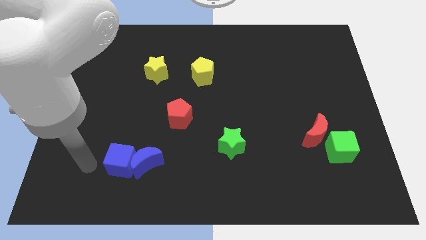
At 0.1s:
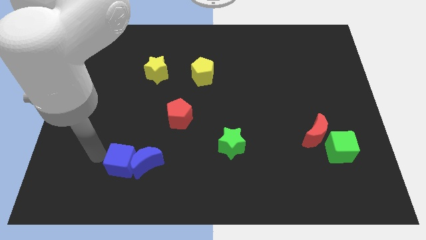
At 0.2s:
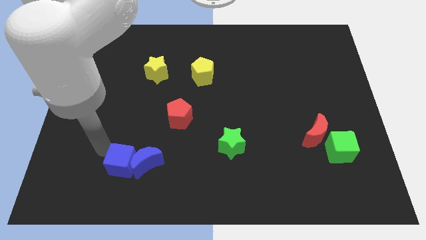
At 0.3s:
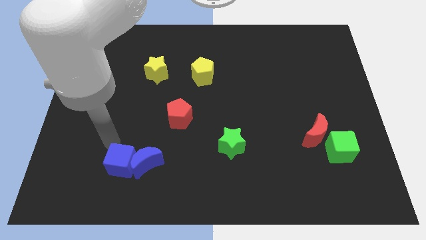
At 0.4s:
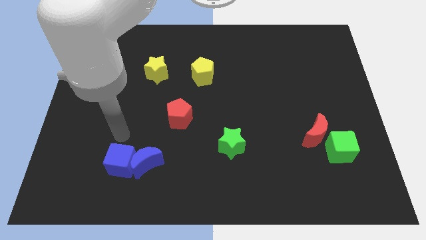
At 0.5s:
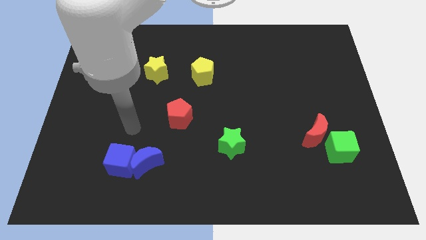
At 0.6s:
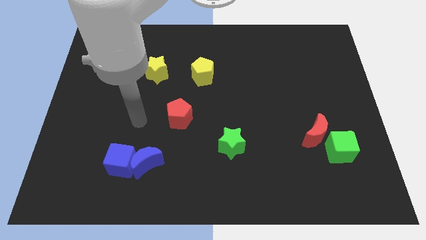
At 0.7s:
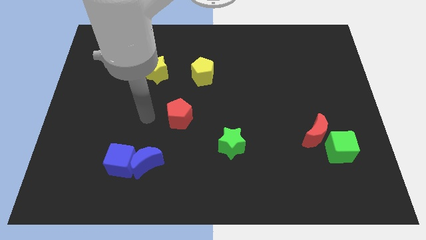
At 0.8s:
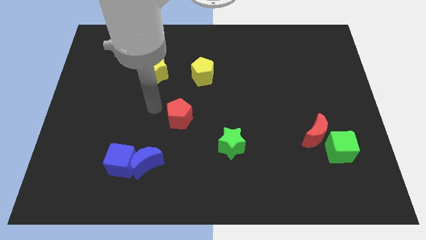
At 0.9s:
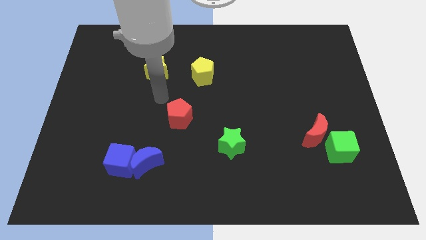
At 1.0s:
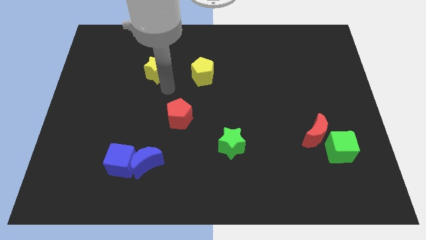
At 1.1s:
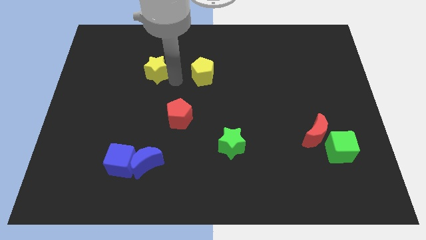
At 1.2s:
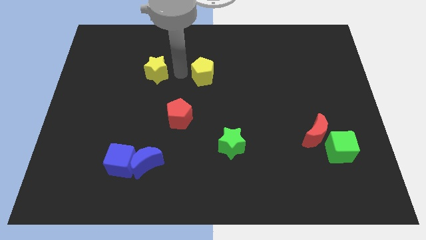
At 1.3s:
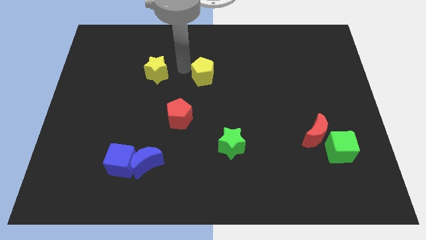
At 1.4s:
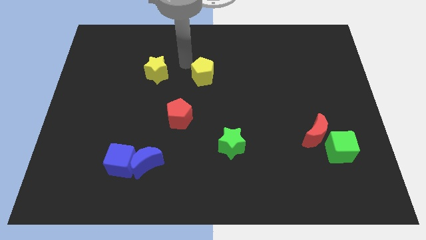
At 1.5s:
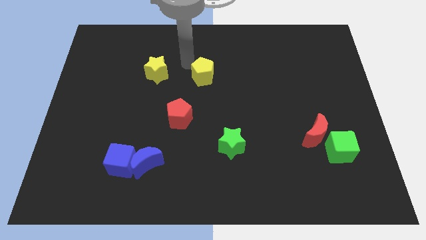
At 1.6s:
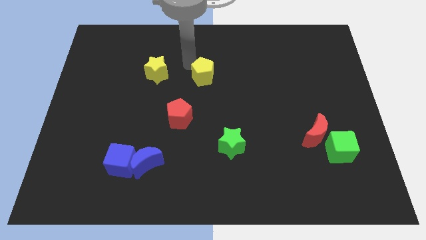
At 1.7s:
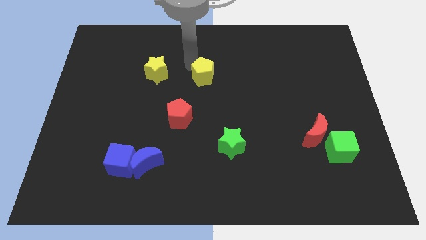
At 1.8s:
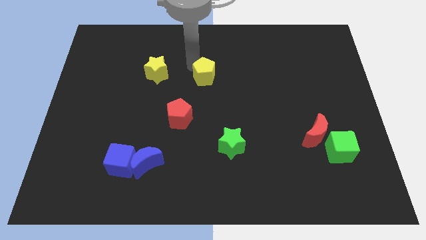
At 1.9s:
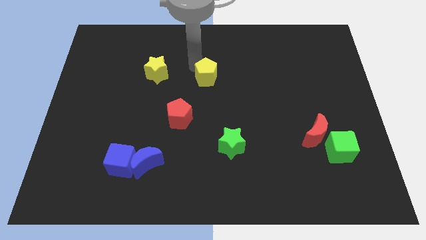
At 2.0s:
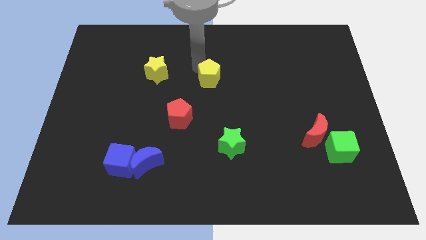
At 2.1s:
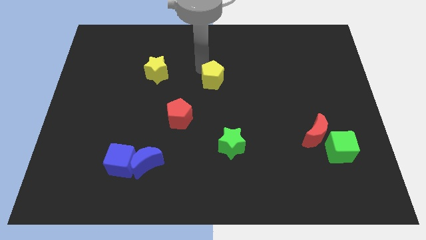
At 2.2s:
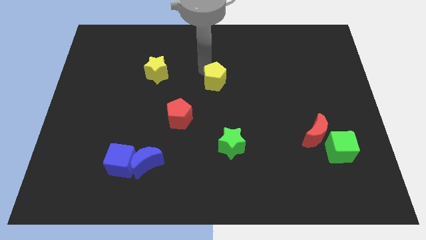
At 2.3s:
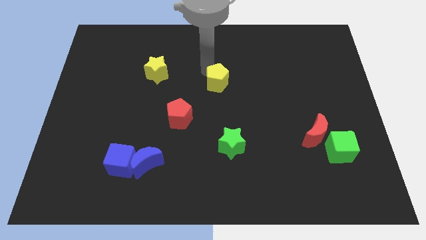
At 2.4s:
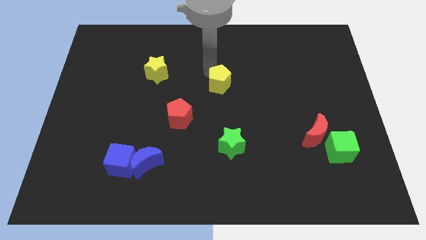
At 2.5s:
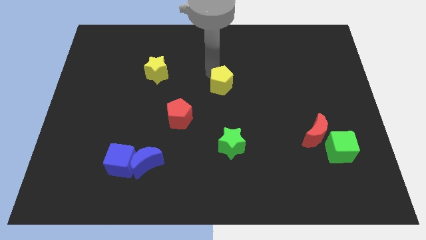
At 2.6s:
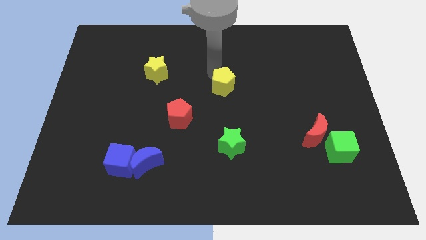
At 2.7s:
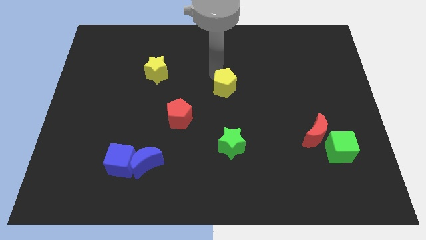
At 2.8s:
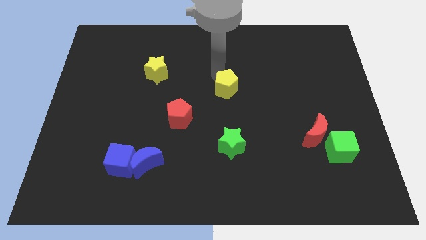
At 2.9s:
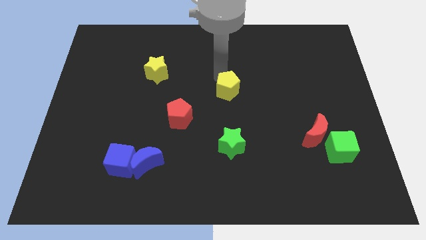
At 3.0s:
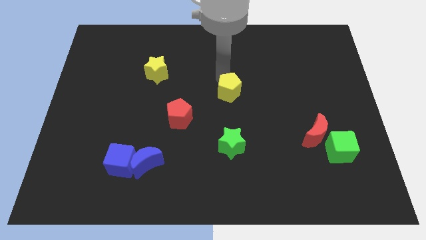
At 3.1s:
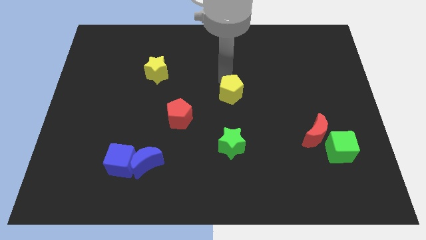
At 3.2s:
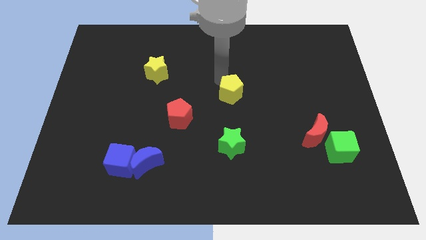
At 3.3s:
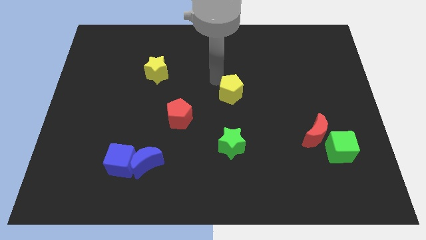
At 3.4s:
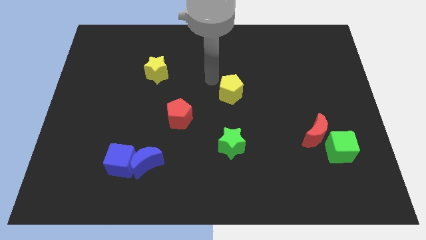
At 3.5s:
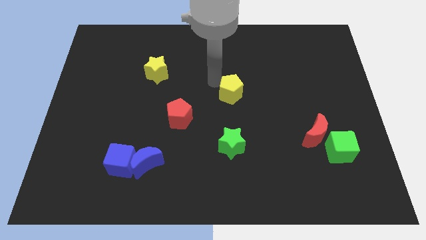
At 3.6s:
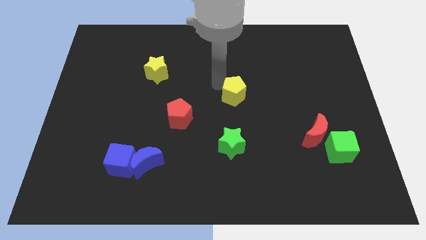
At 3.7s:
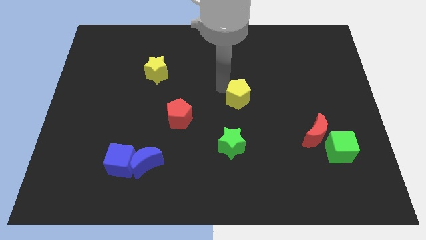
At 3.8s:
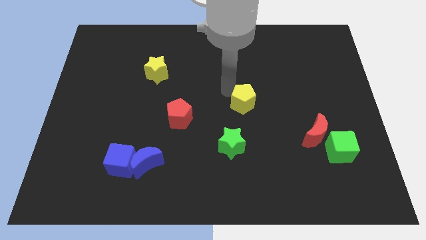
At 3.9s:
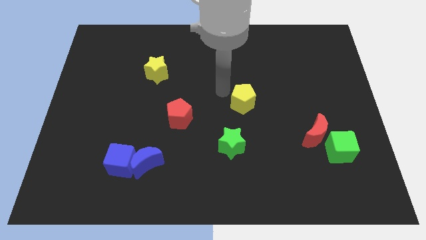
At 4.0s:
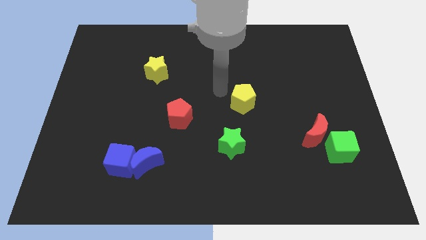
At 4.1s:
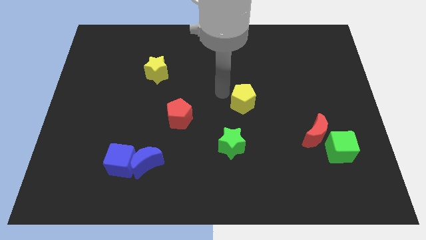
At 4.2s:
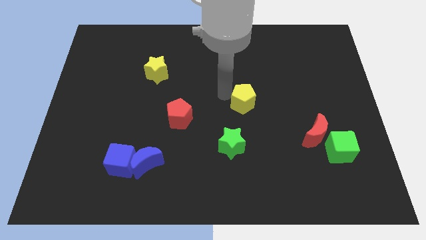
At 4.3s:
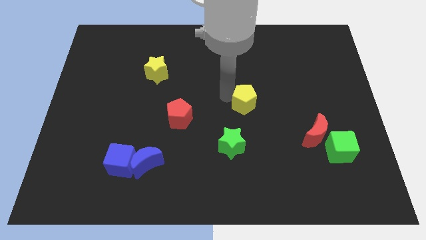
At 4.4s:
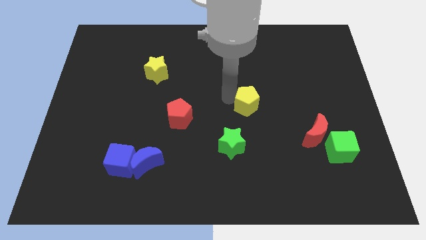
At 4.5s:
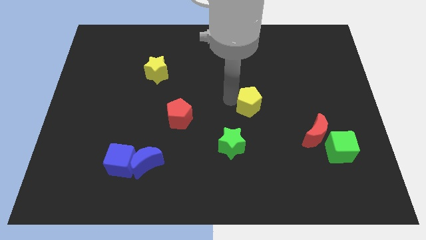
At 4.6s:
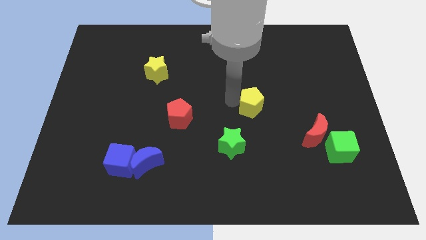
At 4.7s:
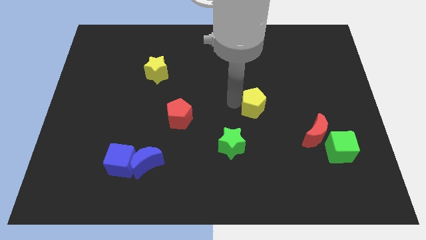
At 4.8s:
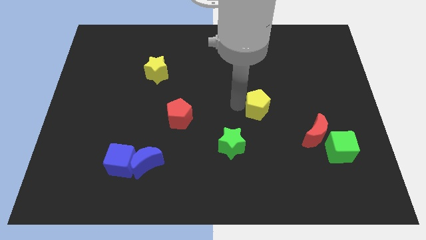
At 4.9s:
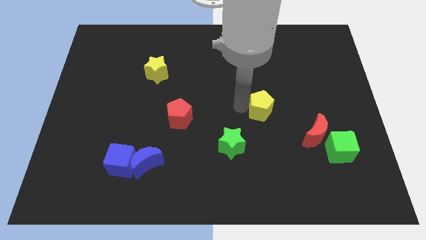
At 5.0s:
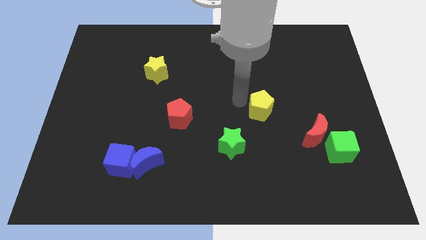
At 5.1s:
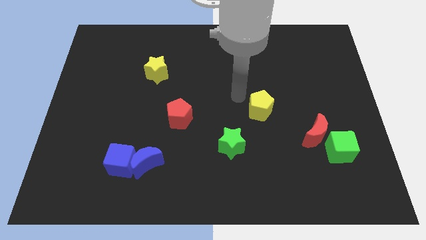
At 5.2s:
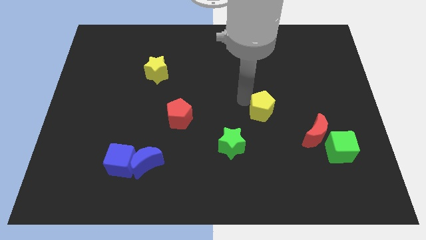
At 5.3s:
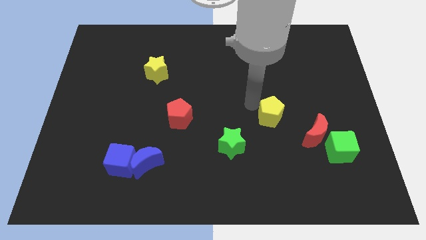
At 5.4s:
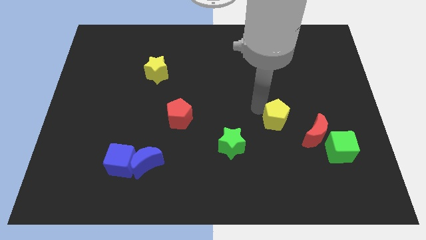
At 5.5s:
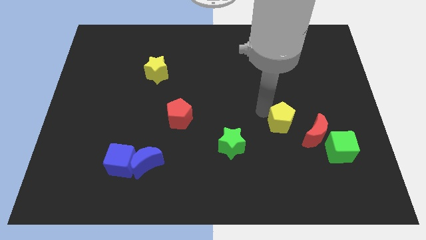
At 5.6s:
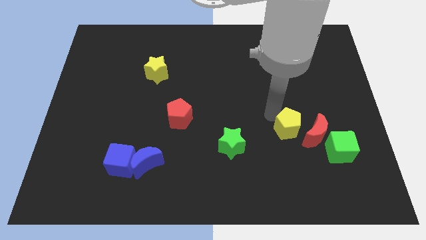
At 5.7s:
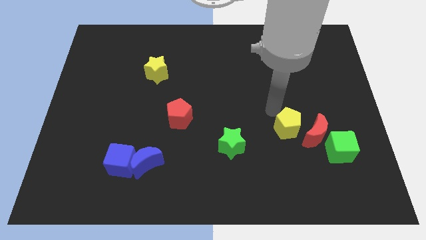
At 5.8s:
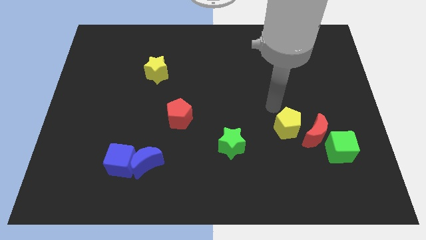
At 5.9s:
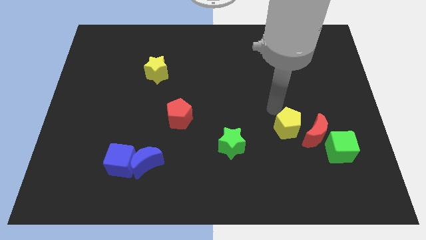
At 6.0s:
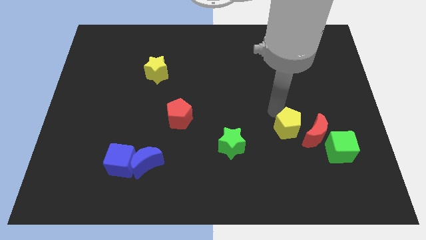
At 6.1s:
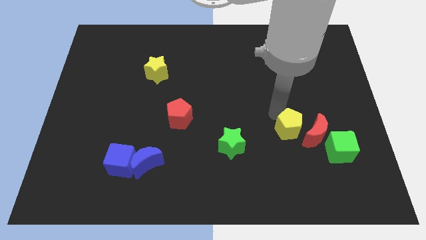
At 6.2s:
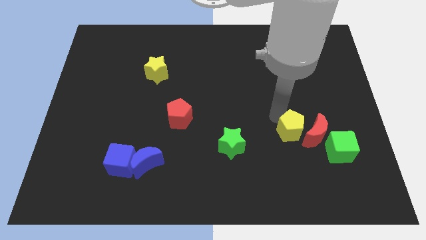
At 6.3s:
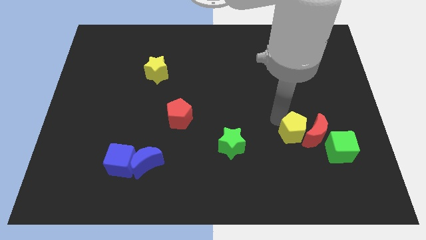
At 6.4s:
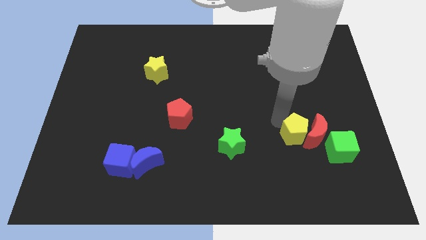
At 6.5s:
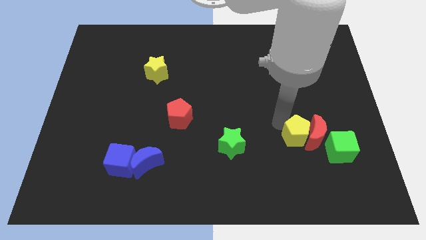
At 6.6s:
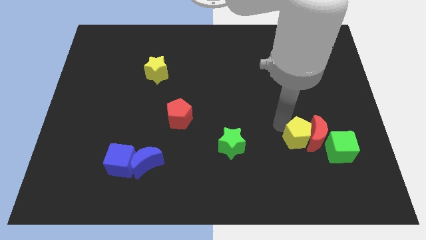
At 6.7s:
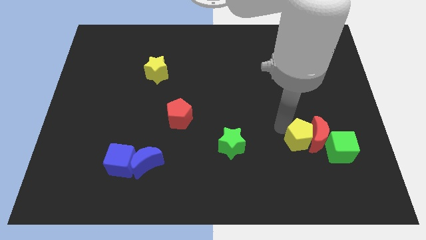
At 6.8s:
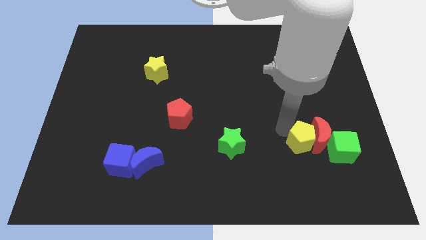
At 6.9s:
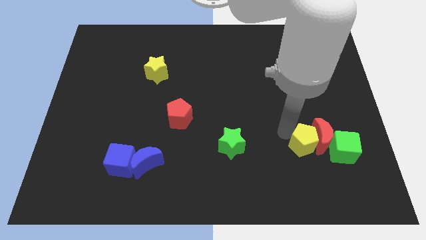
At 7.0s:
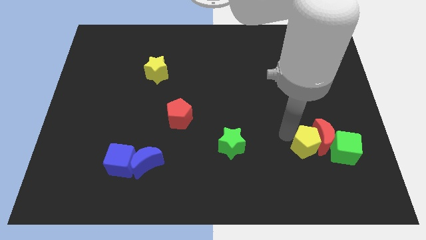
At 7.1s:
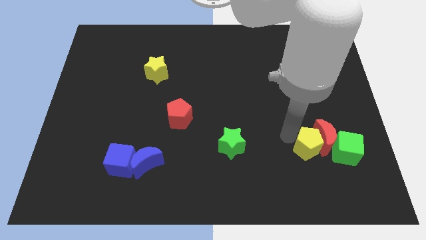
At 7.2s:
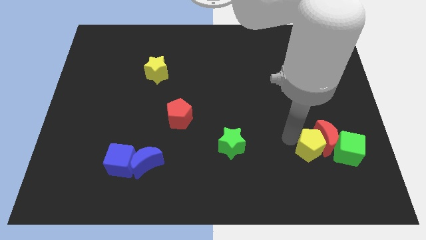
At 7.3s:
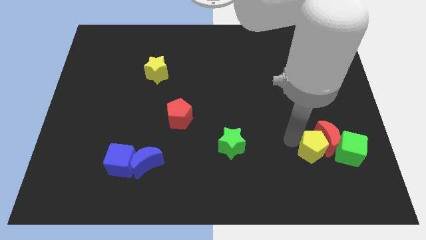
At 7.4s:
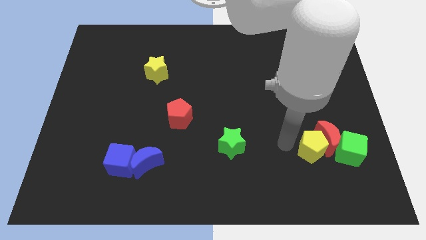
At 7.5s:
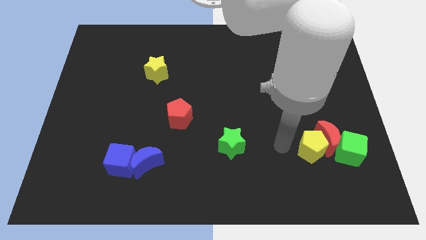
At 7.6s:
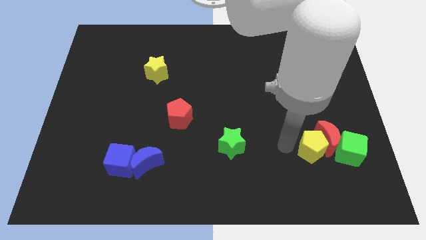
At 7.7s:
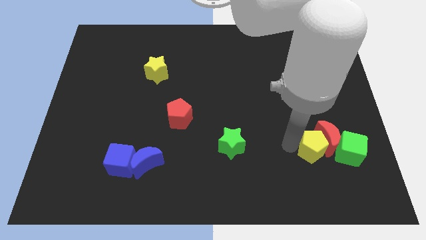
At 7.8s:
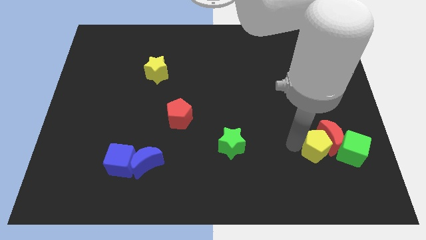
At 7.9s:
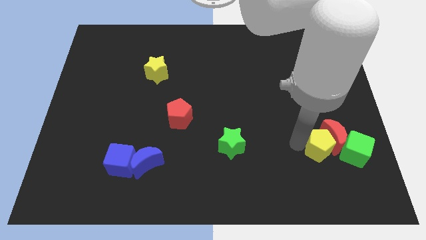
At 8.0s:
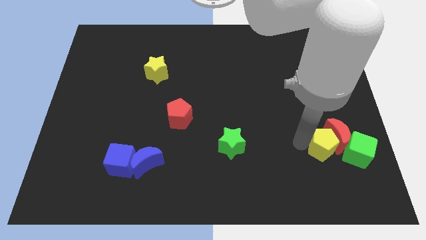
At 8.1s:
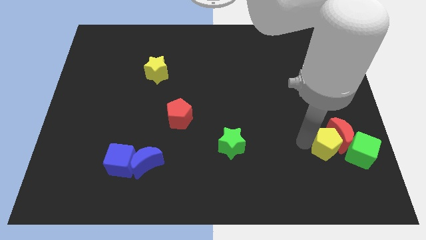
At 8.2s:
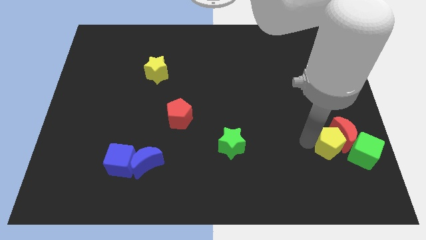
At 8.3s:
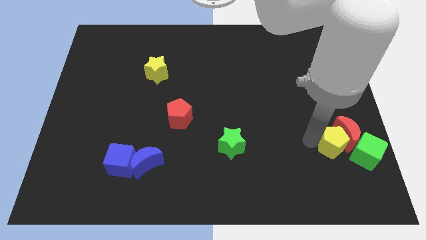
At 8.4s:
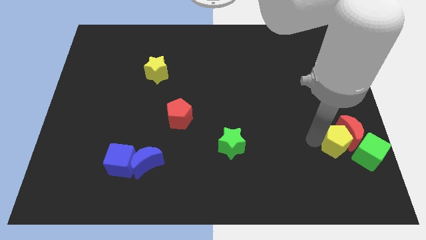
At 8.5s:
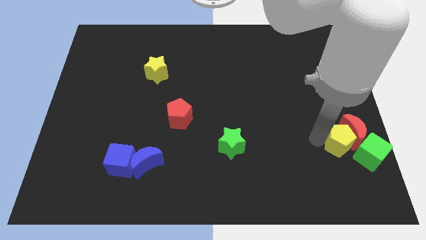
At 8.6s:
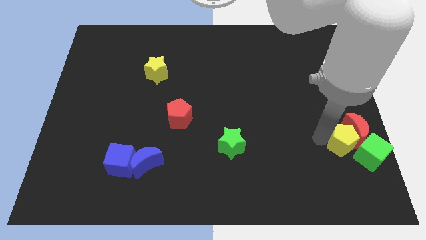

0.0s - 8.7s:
slide the yellow pentagon next to the green cube
